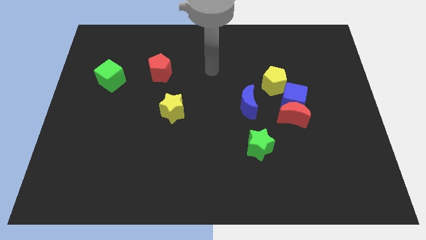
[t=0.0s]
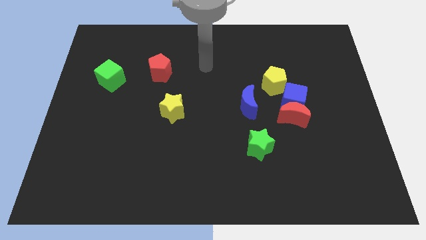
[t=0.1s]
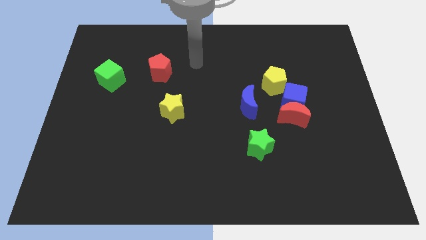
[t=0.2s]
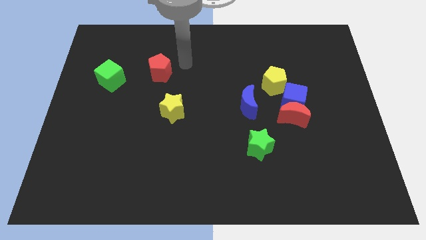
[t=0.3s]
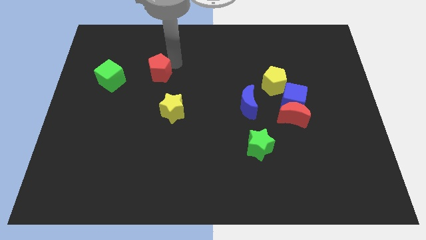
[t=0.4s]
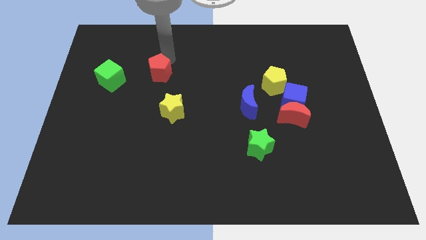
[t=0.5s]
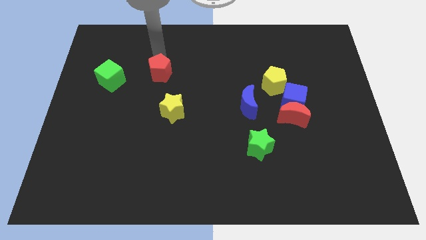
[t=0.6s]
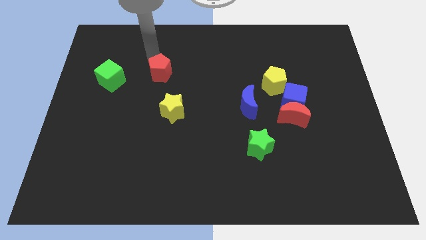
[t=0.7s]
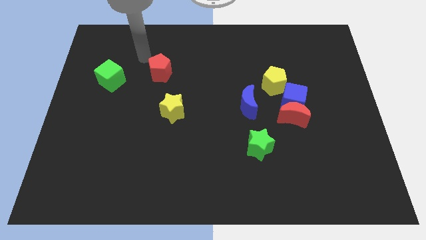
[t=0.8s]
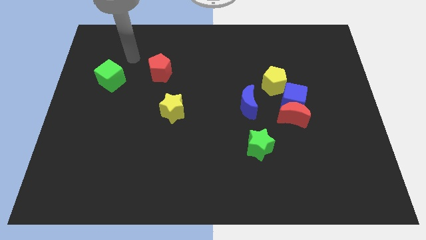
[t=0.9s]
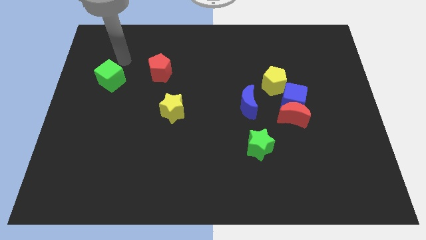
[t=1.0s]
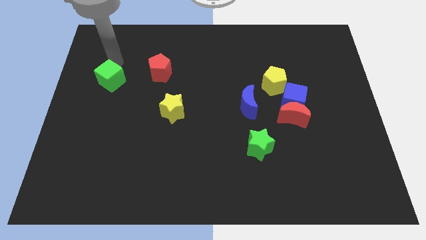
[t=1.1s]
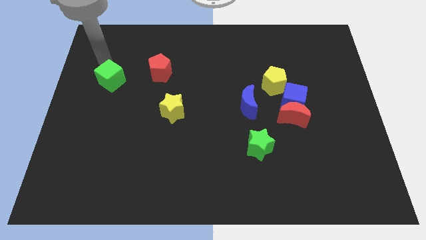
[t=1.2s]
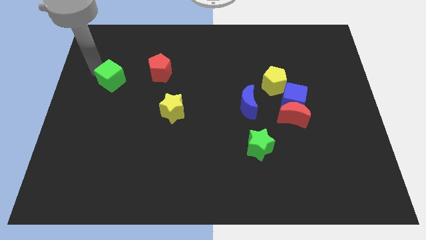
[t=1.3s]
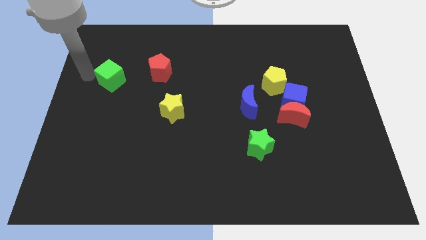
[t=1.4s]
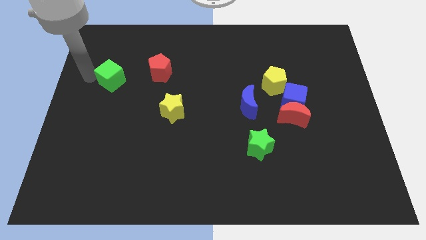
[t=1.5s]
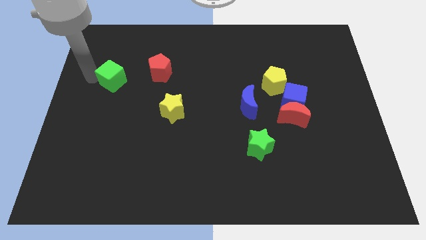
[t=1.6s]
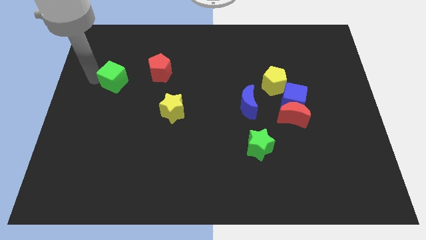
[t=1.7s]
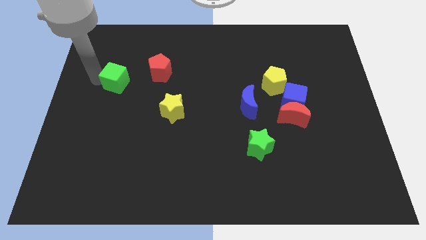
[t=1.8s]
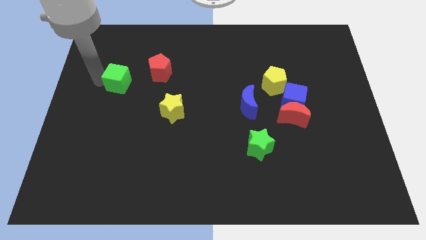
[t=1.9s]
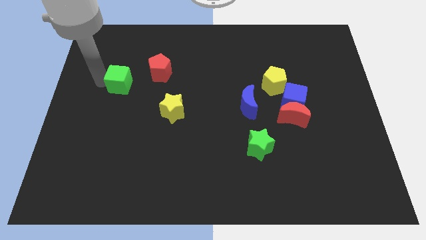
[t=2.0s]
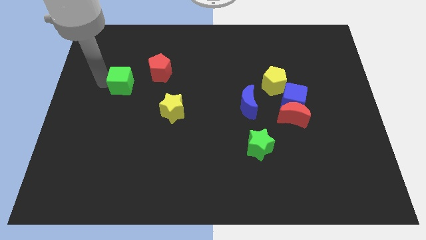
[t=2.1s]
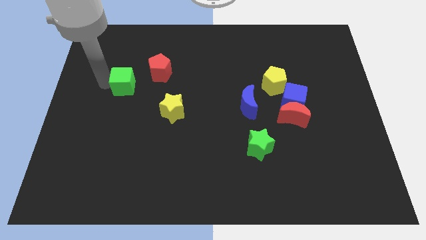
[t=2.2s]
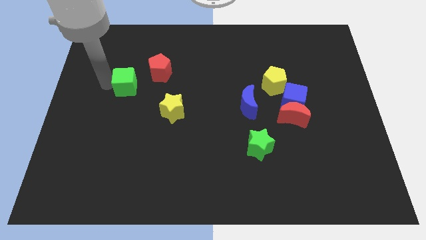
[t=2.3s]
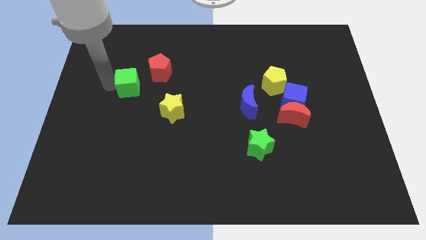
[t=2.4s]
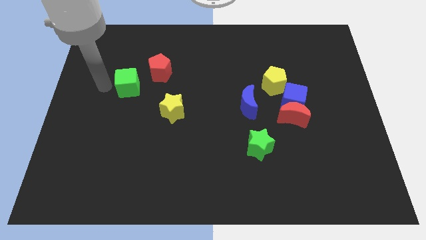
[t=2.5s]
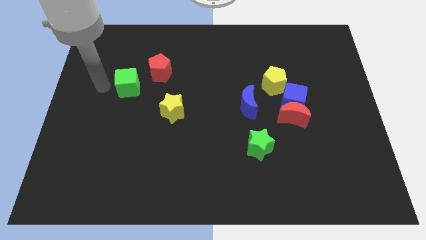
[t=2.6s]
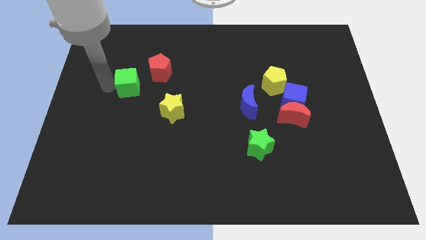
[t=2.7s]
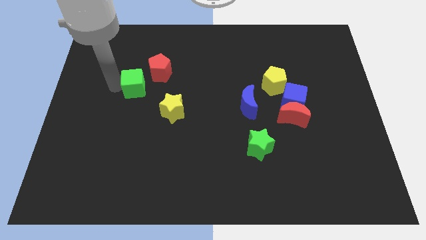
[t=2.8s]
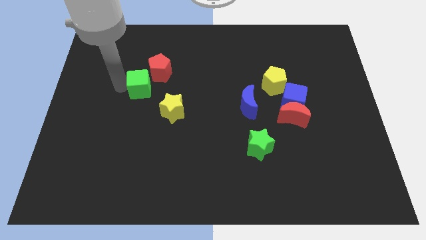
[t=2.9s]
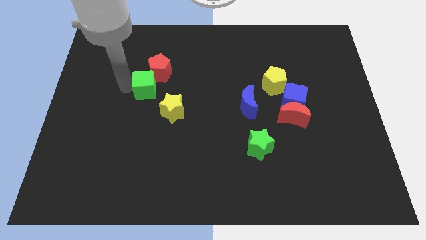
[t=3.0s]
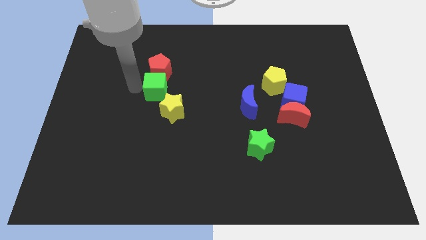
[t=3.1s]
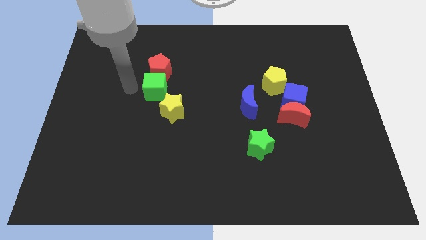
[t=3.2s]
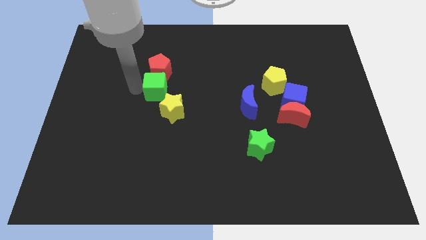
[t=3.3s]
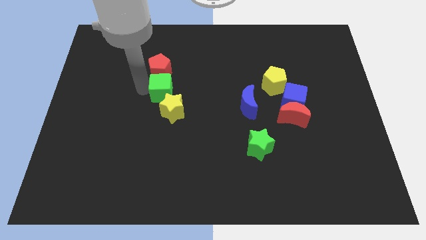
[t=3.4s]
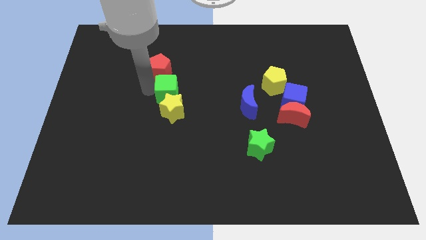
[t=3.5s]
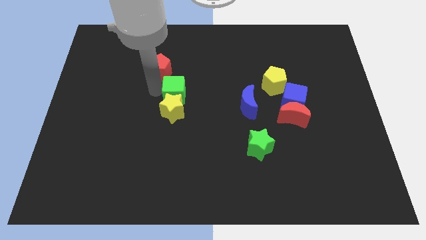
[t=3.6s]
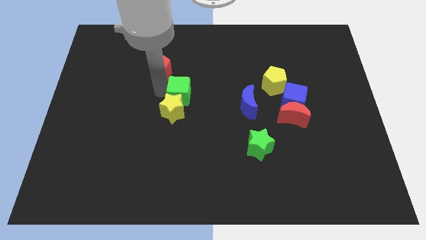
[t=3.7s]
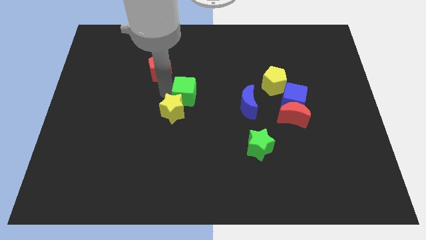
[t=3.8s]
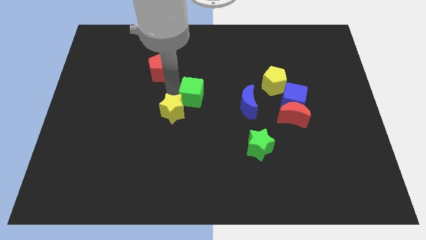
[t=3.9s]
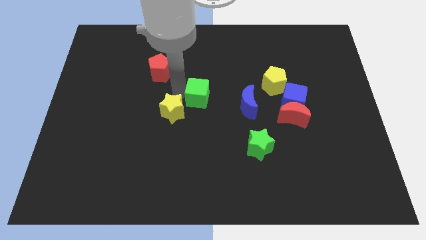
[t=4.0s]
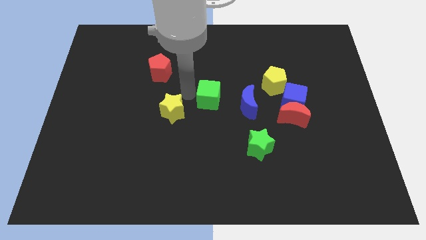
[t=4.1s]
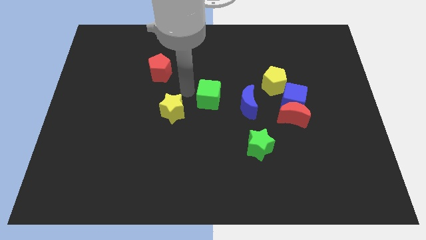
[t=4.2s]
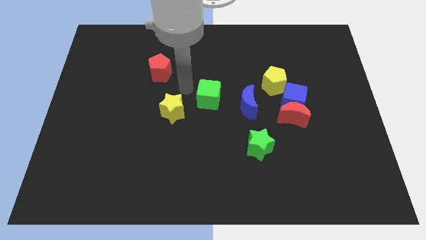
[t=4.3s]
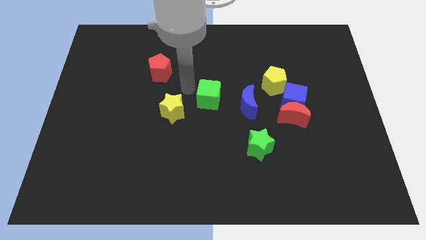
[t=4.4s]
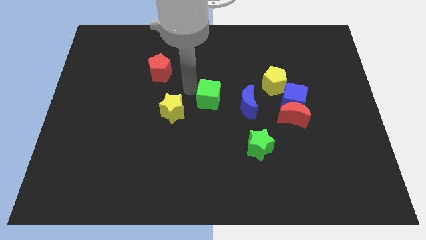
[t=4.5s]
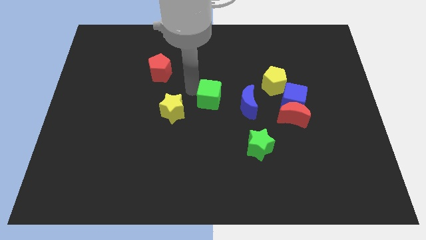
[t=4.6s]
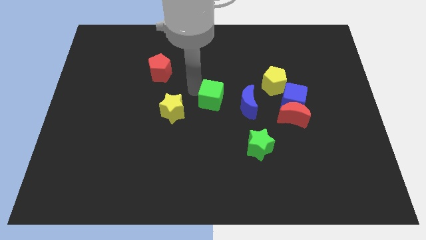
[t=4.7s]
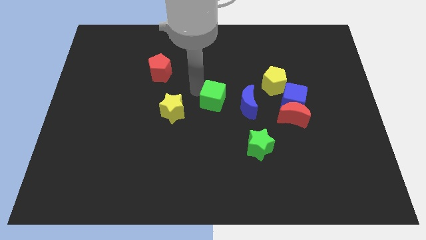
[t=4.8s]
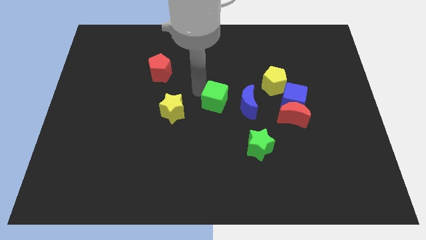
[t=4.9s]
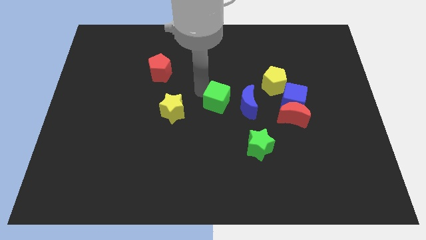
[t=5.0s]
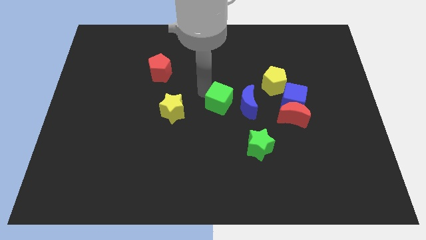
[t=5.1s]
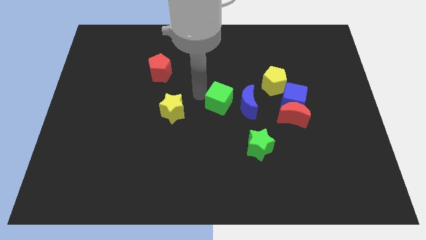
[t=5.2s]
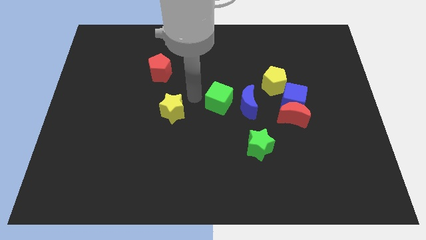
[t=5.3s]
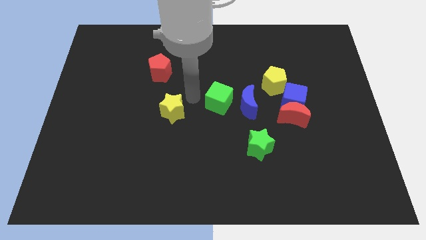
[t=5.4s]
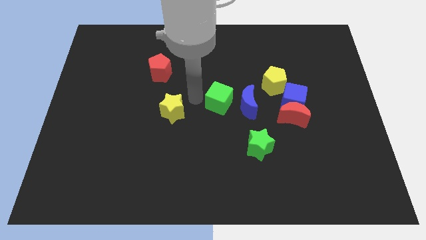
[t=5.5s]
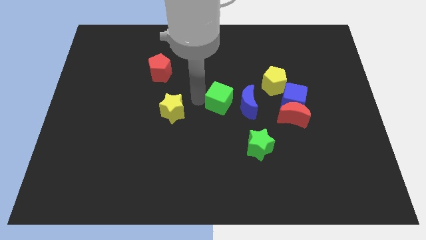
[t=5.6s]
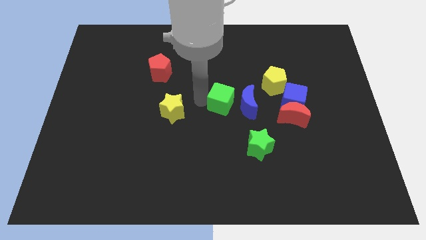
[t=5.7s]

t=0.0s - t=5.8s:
put the green cube to the blue moon

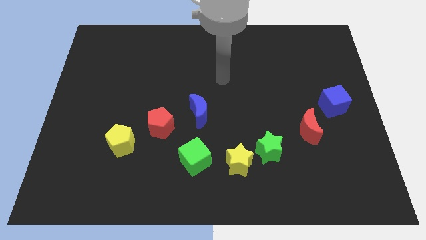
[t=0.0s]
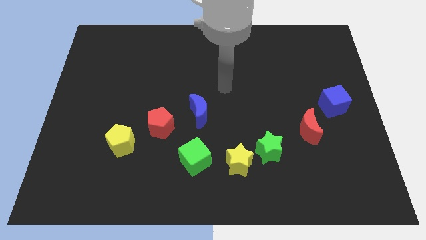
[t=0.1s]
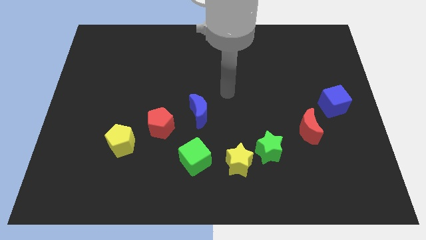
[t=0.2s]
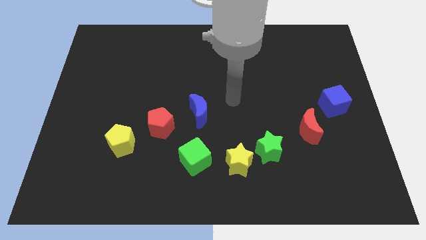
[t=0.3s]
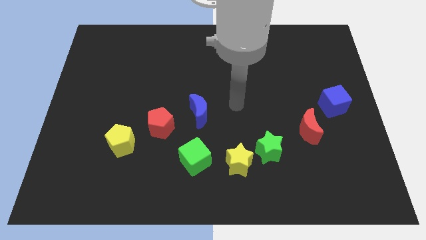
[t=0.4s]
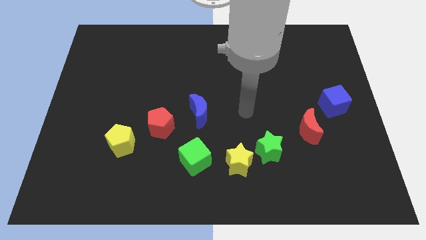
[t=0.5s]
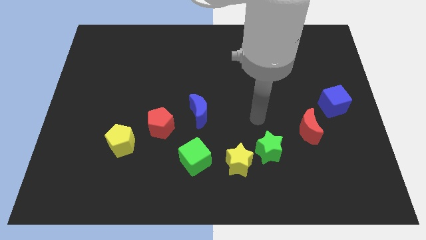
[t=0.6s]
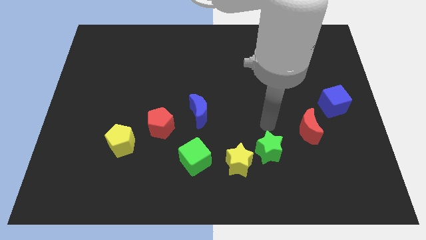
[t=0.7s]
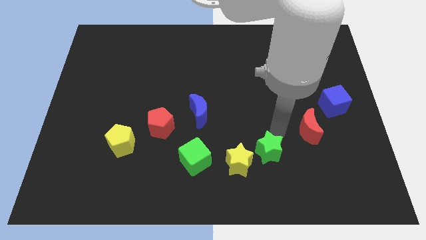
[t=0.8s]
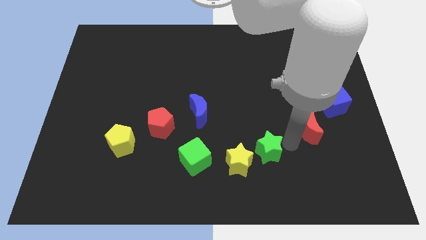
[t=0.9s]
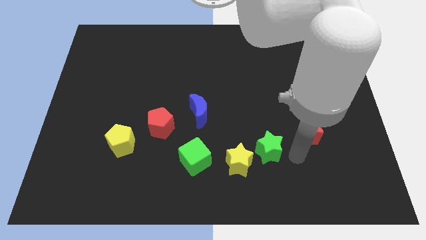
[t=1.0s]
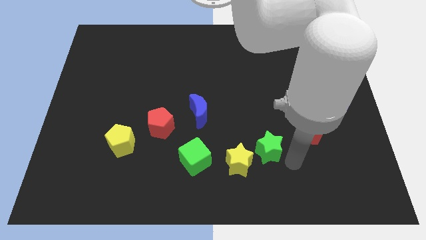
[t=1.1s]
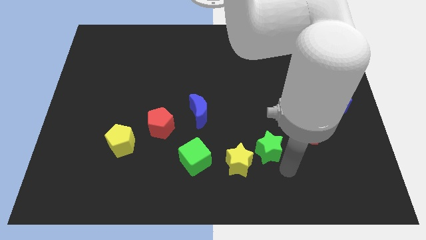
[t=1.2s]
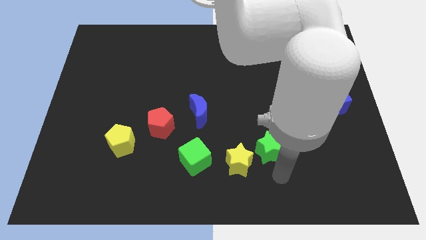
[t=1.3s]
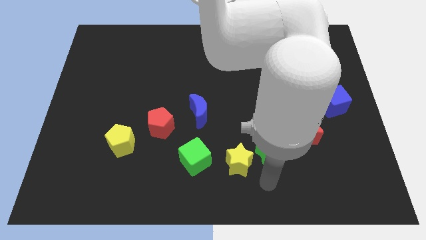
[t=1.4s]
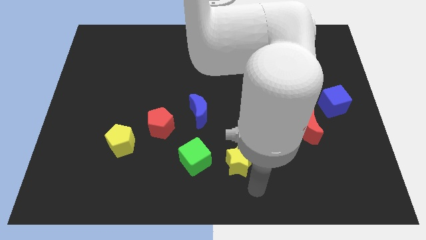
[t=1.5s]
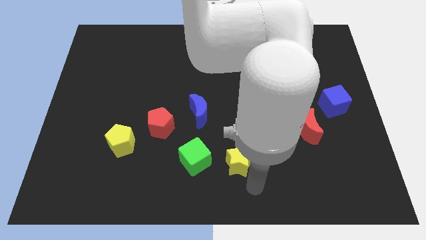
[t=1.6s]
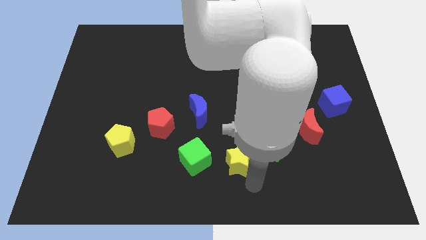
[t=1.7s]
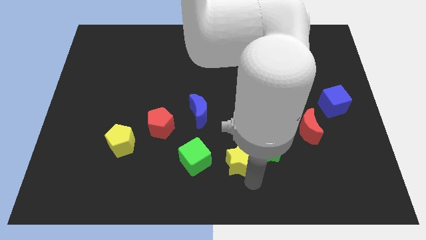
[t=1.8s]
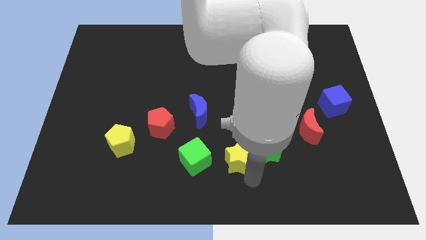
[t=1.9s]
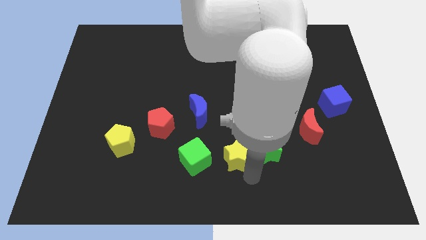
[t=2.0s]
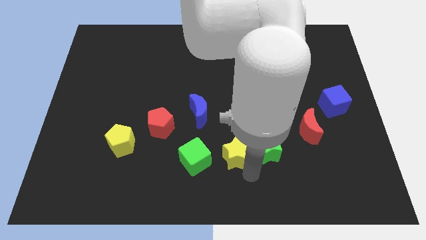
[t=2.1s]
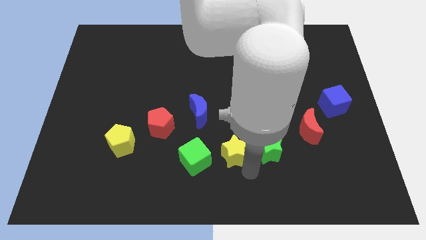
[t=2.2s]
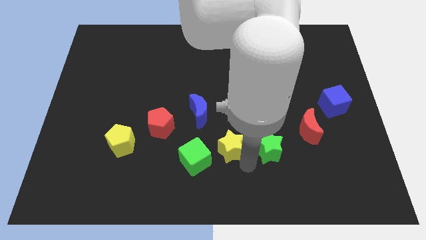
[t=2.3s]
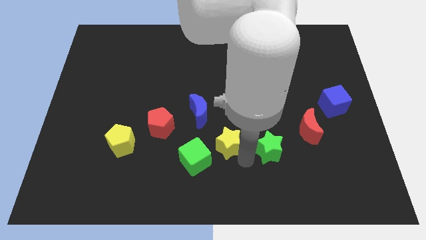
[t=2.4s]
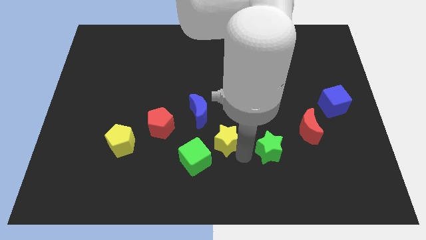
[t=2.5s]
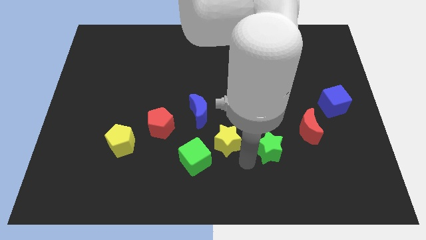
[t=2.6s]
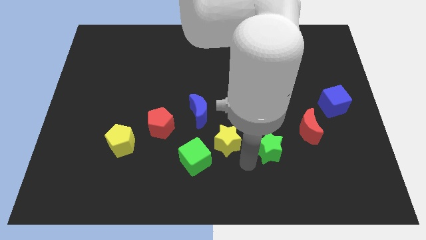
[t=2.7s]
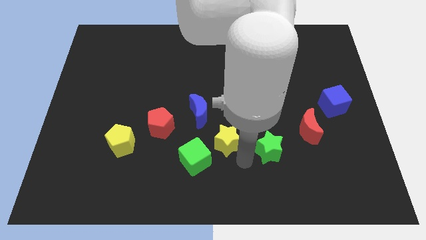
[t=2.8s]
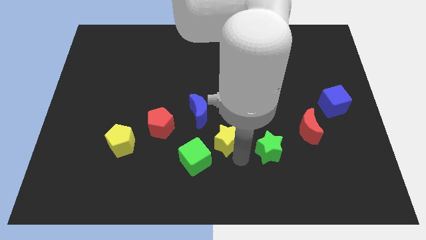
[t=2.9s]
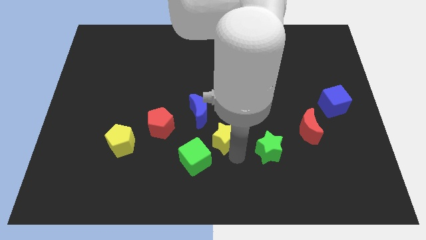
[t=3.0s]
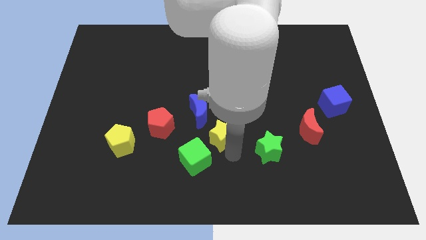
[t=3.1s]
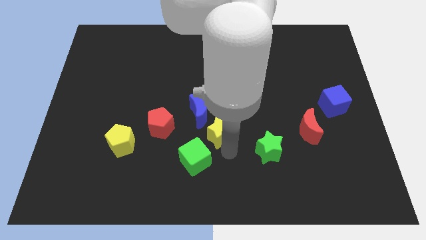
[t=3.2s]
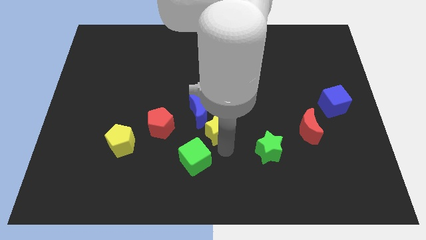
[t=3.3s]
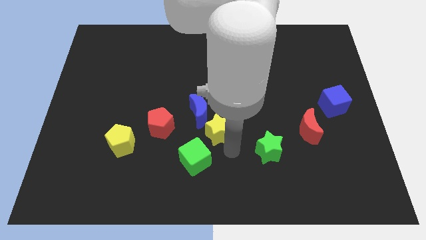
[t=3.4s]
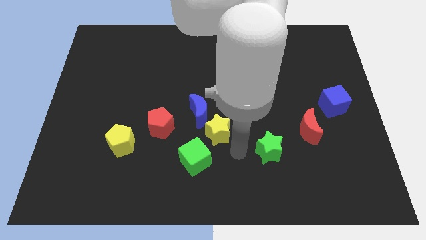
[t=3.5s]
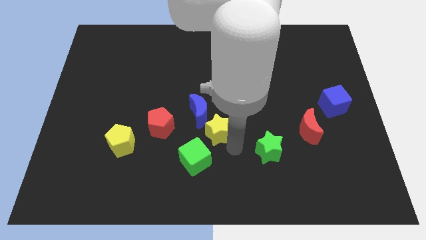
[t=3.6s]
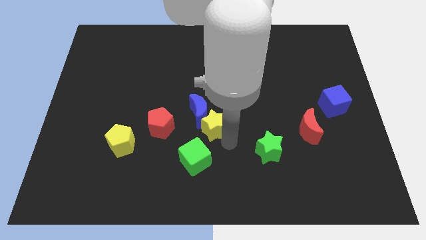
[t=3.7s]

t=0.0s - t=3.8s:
push the yellow star towards the blue moon
